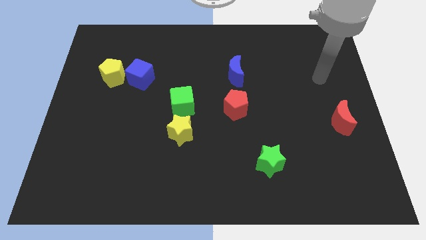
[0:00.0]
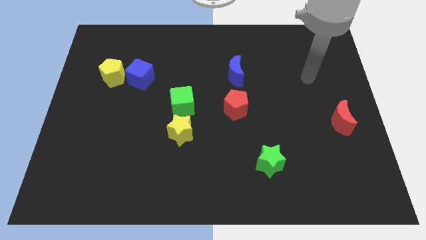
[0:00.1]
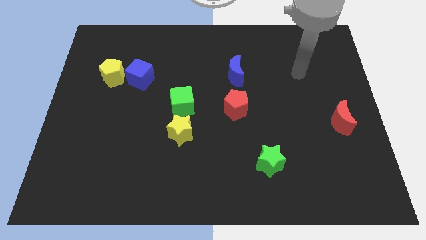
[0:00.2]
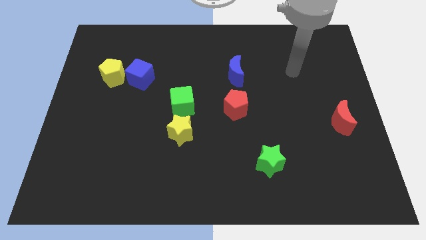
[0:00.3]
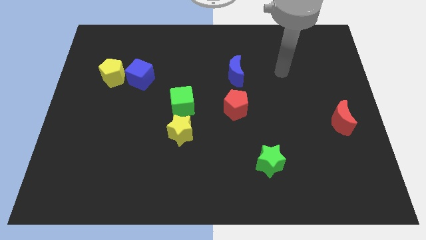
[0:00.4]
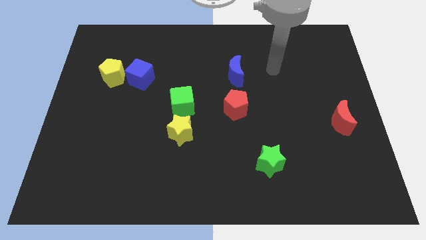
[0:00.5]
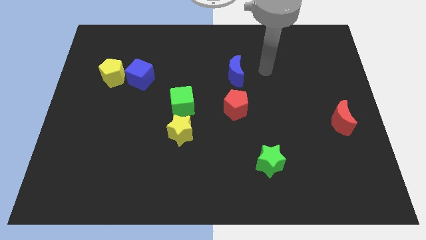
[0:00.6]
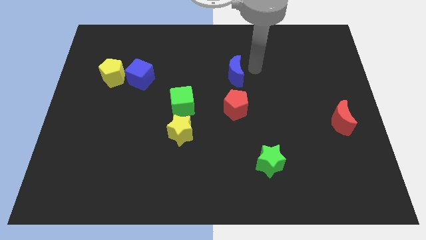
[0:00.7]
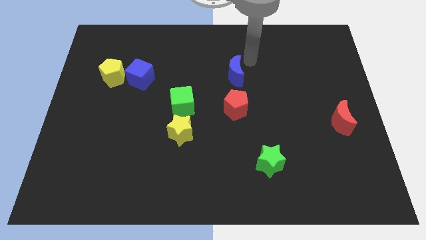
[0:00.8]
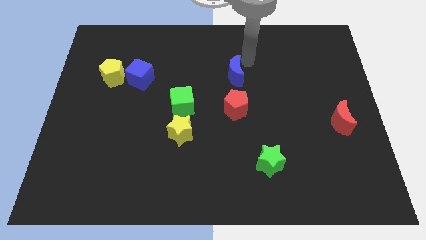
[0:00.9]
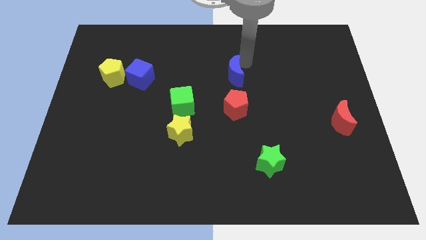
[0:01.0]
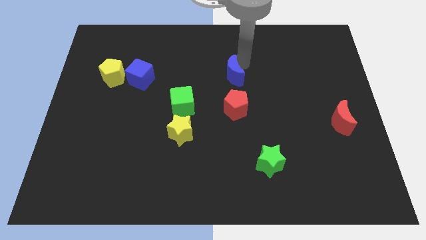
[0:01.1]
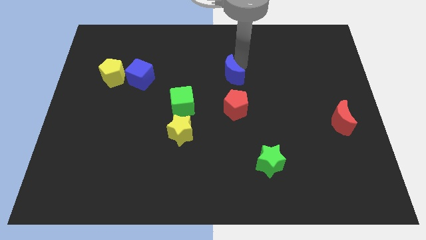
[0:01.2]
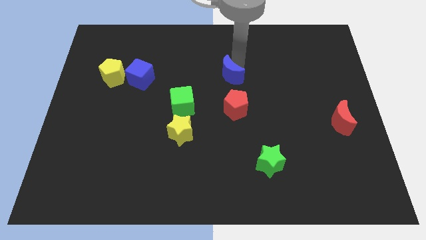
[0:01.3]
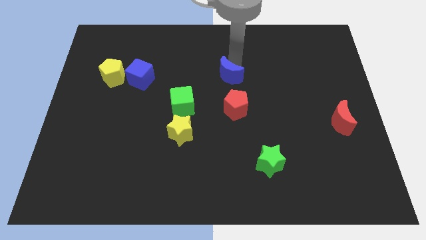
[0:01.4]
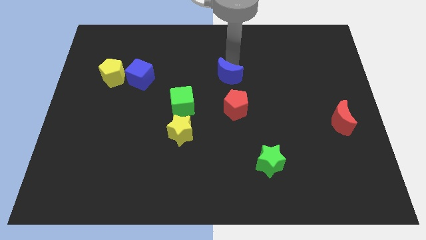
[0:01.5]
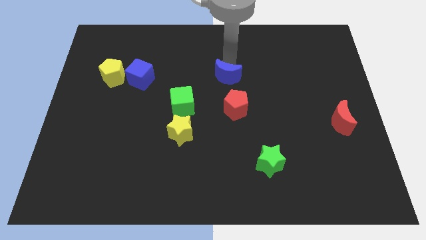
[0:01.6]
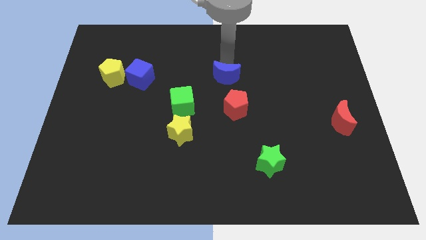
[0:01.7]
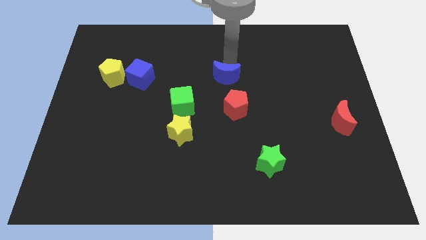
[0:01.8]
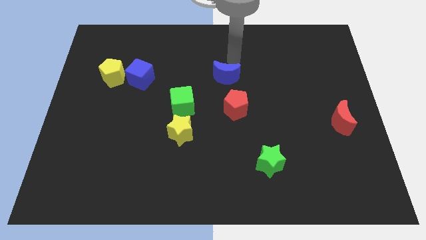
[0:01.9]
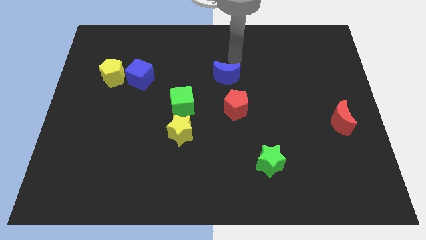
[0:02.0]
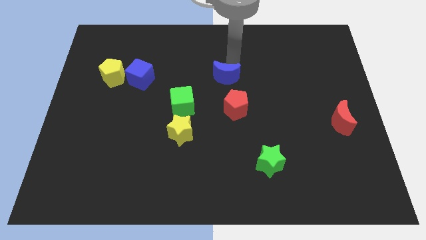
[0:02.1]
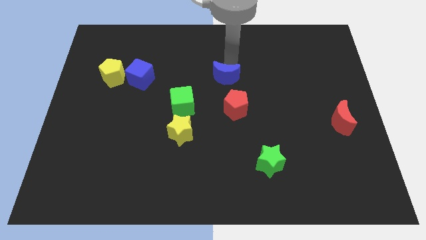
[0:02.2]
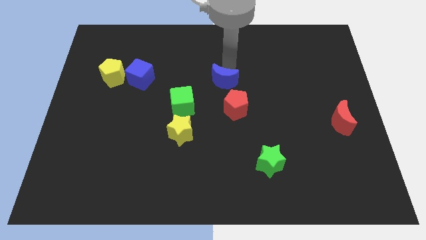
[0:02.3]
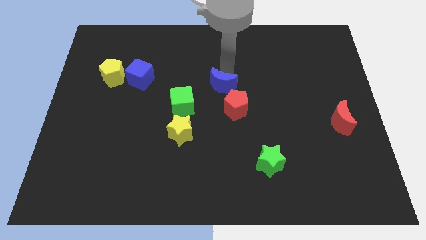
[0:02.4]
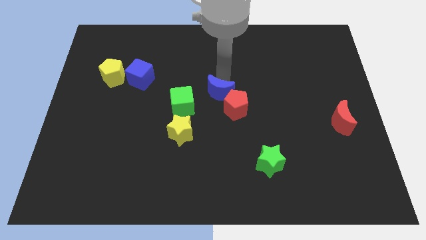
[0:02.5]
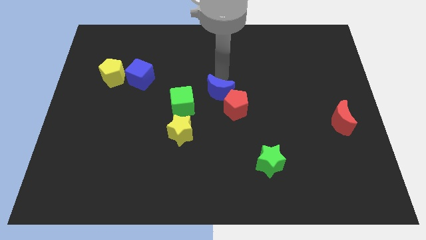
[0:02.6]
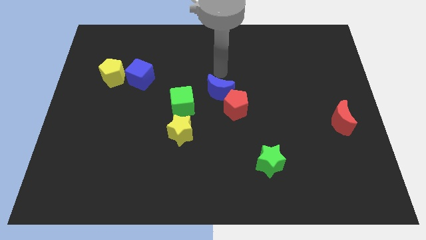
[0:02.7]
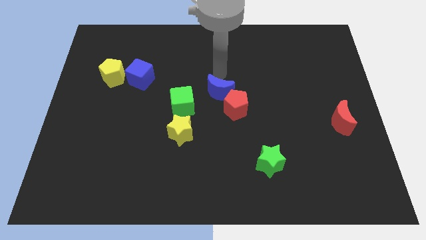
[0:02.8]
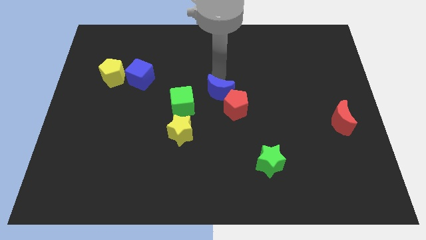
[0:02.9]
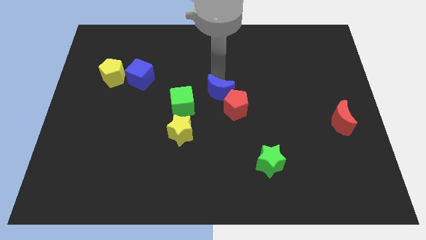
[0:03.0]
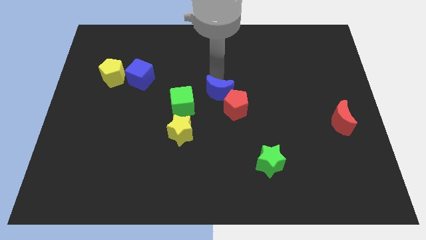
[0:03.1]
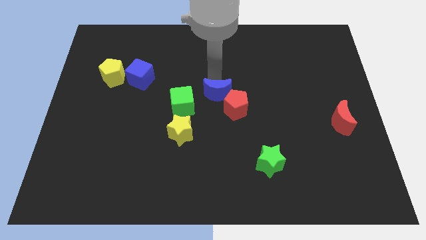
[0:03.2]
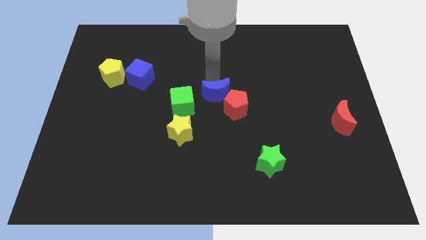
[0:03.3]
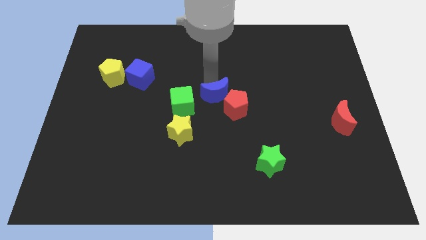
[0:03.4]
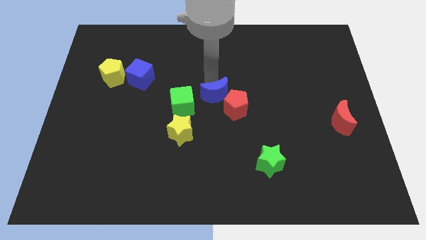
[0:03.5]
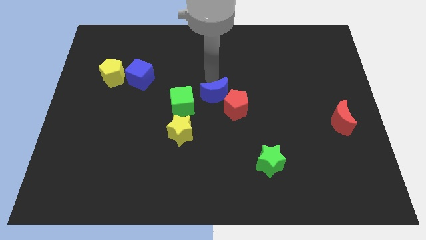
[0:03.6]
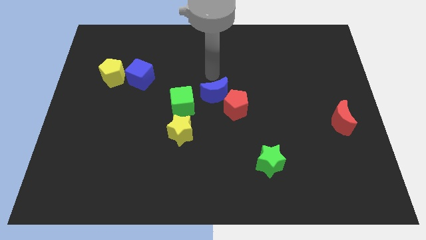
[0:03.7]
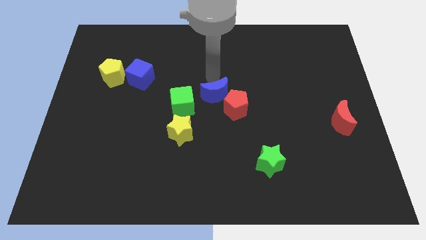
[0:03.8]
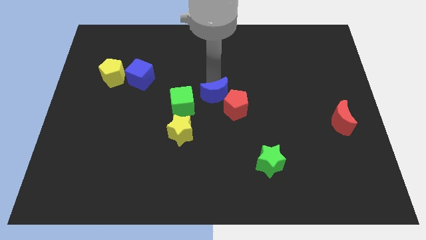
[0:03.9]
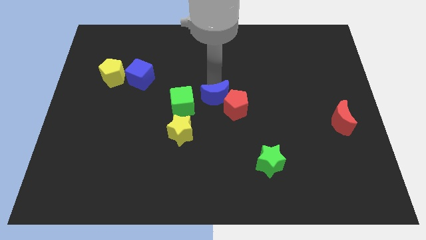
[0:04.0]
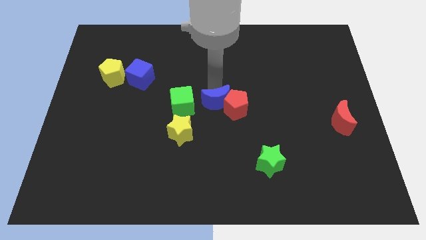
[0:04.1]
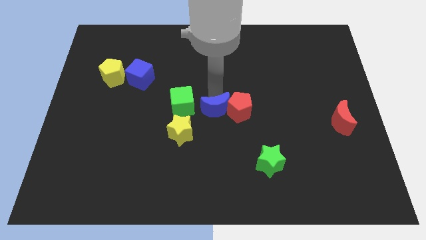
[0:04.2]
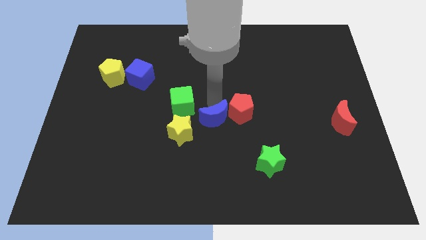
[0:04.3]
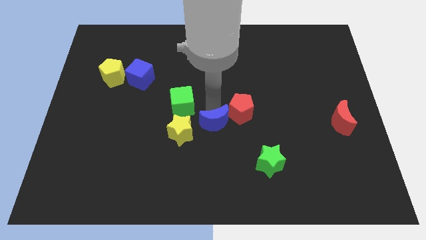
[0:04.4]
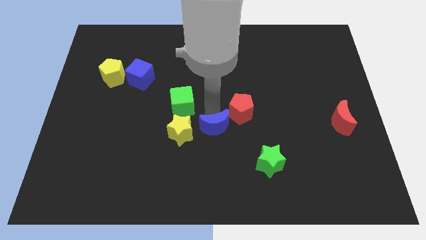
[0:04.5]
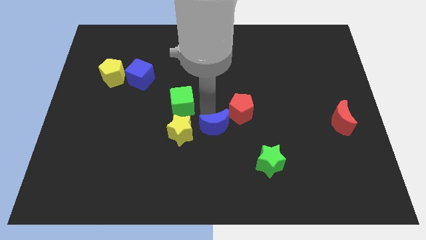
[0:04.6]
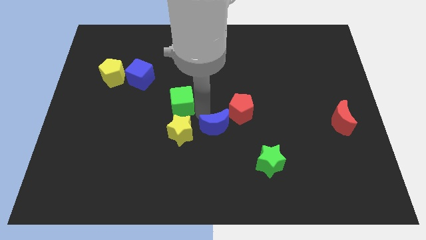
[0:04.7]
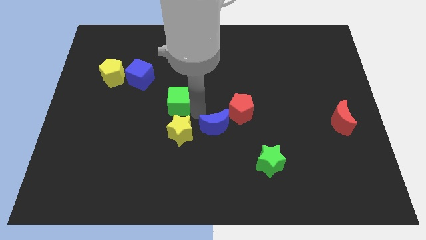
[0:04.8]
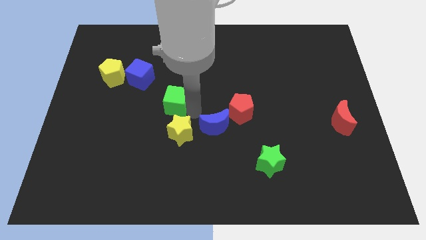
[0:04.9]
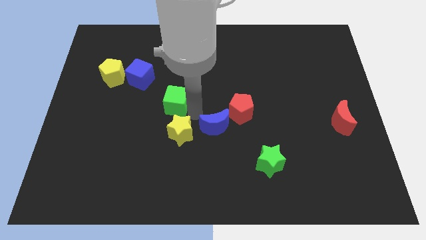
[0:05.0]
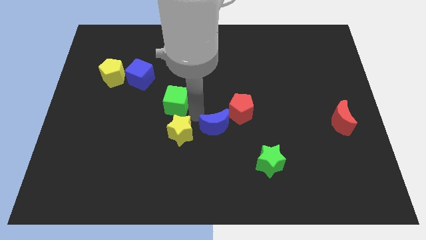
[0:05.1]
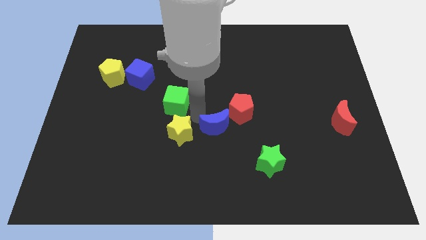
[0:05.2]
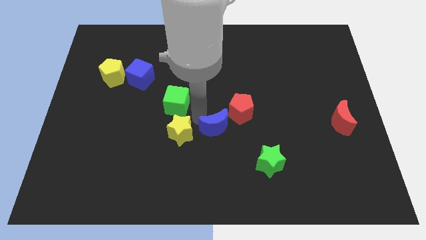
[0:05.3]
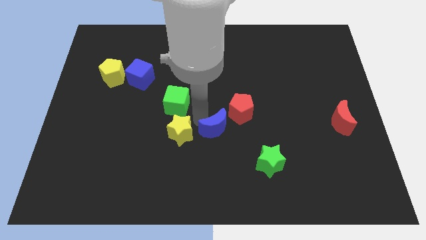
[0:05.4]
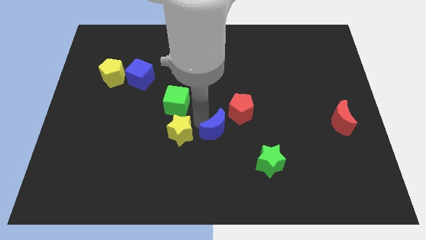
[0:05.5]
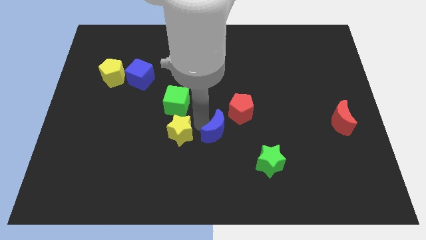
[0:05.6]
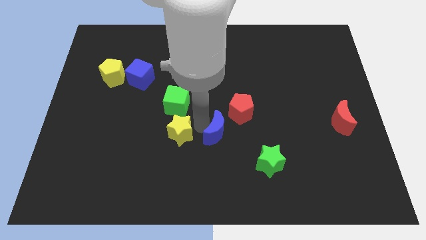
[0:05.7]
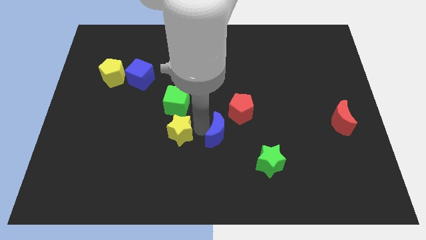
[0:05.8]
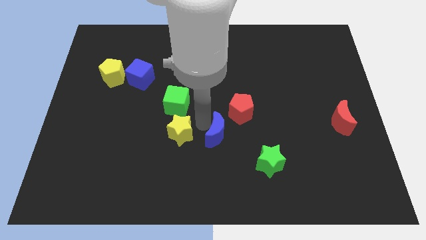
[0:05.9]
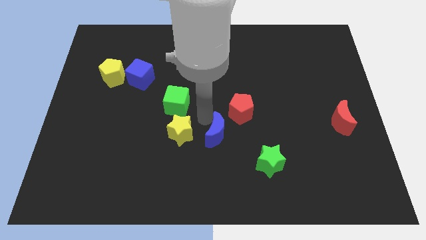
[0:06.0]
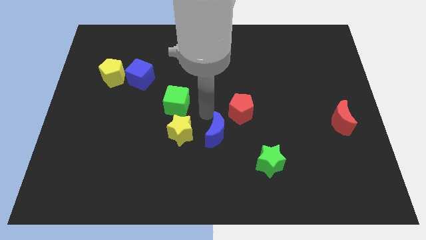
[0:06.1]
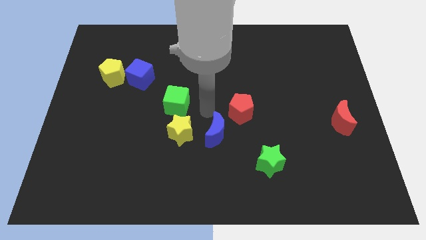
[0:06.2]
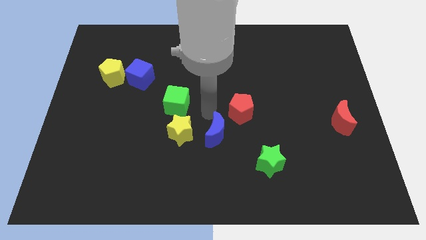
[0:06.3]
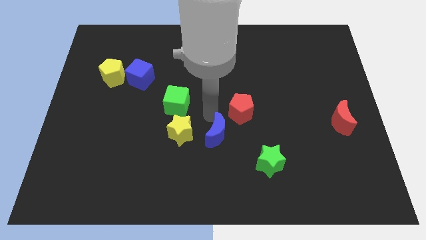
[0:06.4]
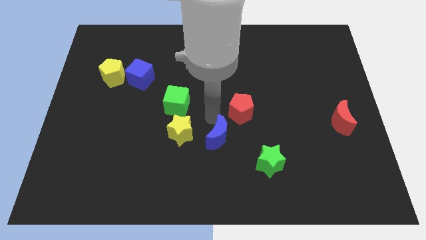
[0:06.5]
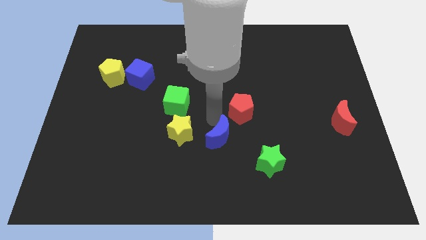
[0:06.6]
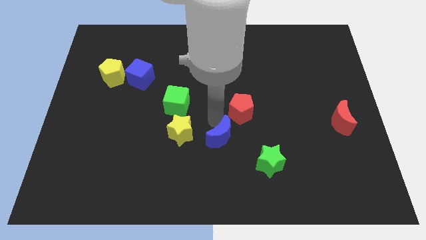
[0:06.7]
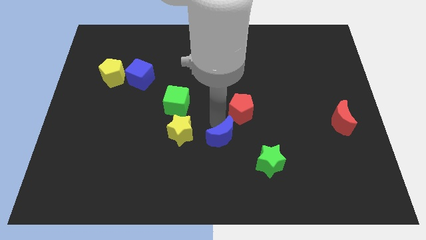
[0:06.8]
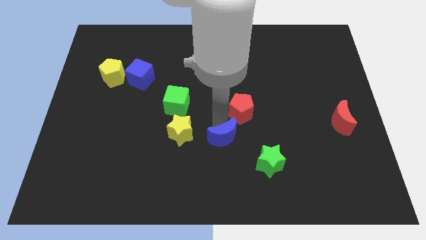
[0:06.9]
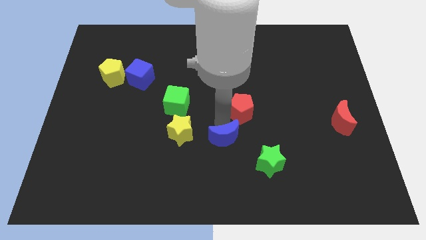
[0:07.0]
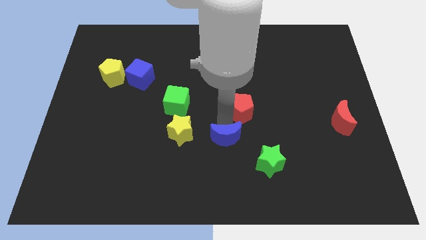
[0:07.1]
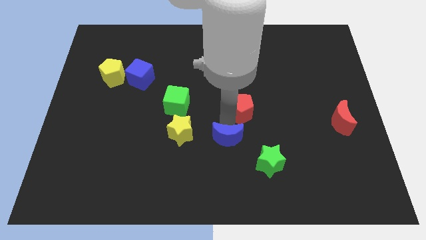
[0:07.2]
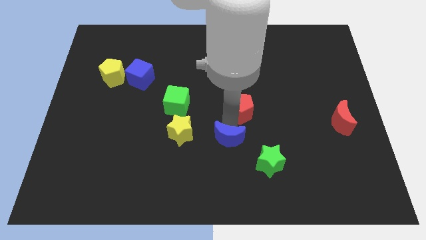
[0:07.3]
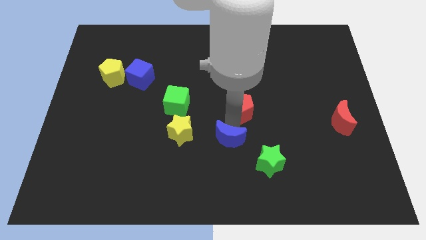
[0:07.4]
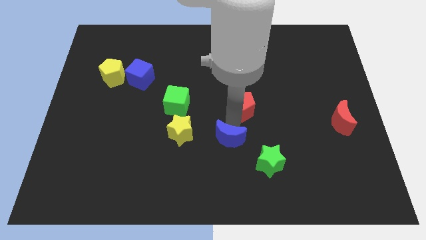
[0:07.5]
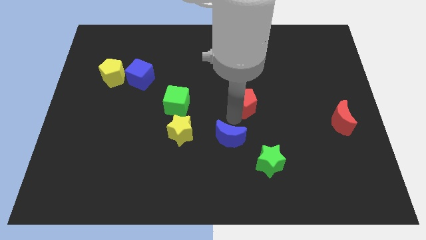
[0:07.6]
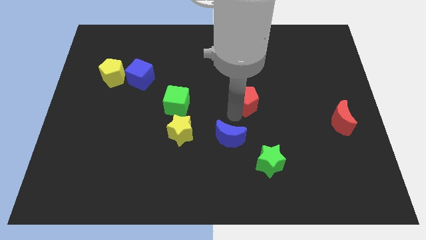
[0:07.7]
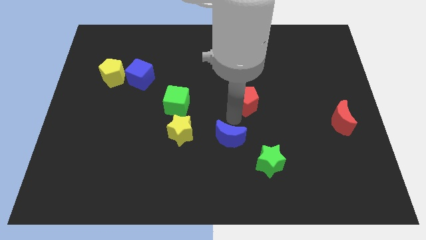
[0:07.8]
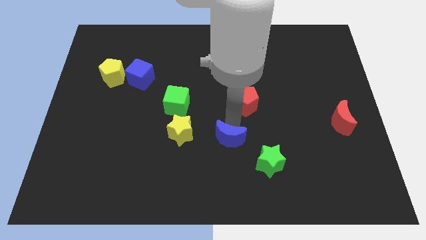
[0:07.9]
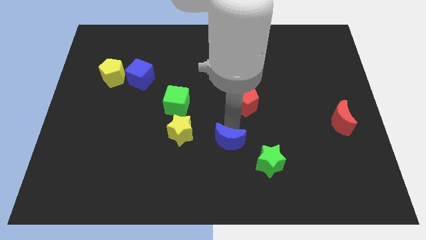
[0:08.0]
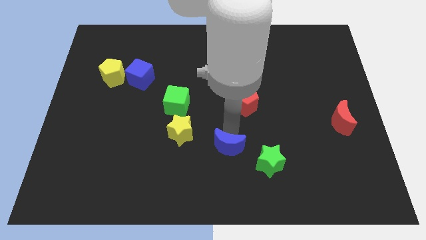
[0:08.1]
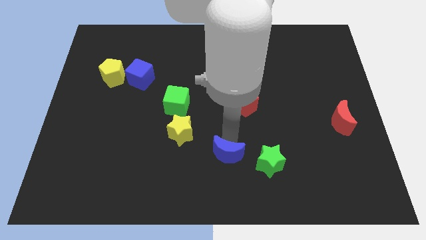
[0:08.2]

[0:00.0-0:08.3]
put the blue moon to the bottom side
